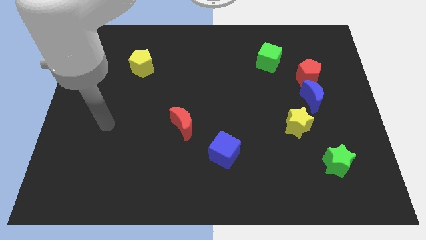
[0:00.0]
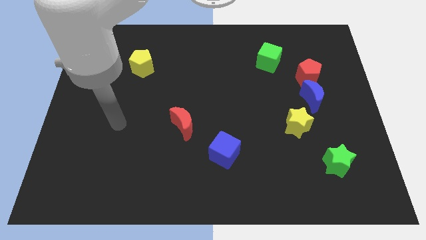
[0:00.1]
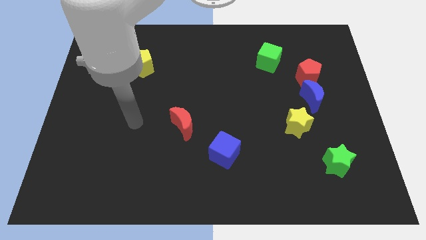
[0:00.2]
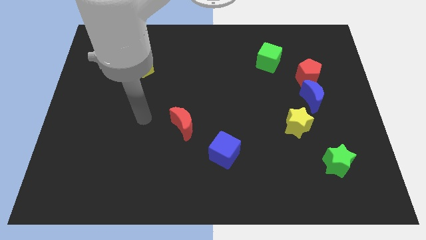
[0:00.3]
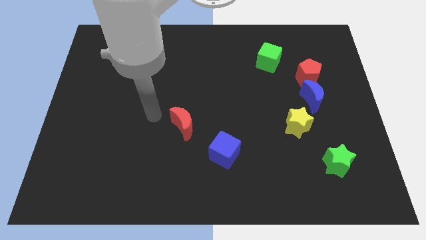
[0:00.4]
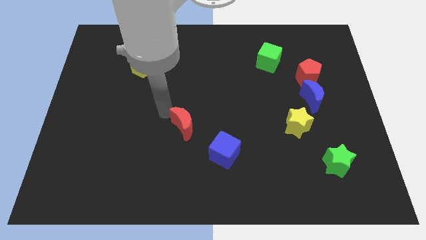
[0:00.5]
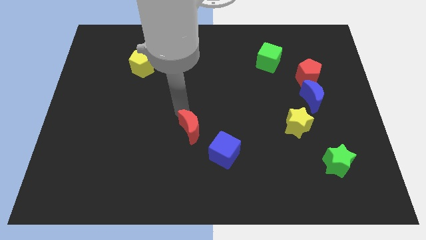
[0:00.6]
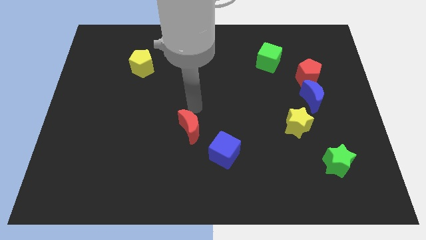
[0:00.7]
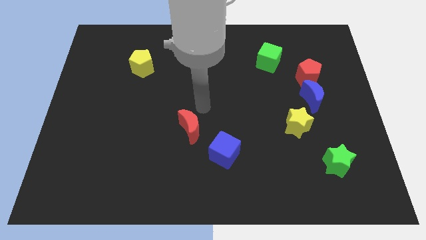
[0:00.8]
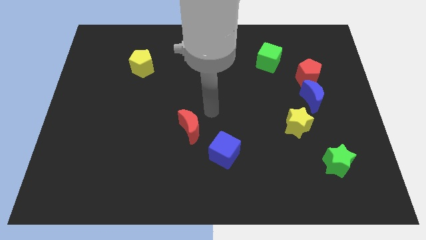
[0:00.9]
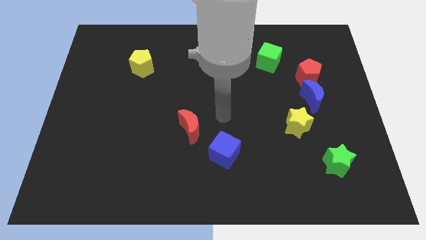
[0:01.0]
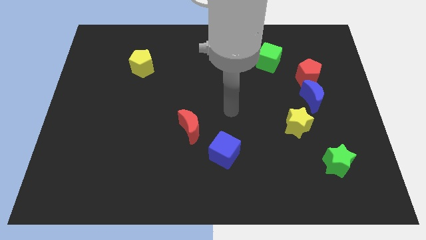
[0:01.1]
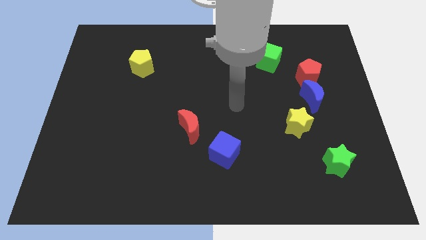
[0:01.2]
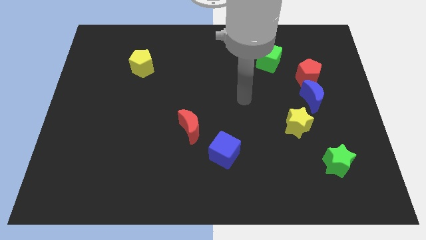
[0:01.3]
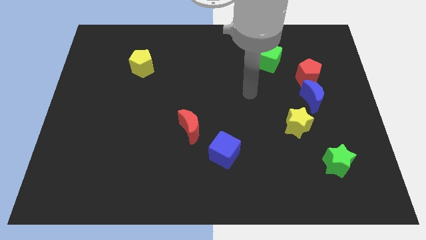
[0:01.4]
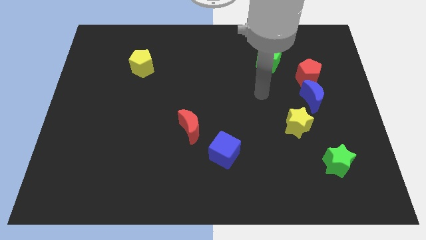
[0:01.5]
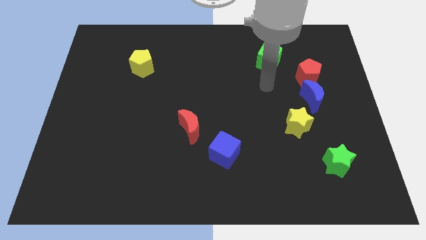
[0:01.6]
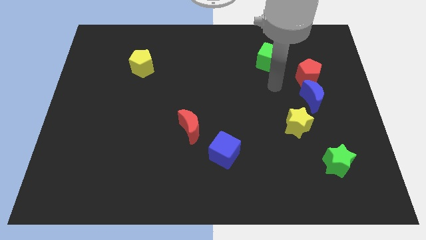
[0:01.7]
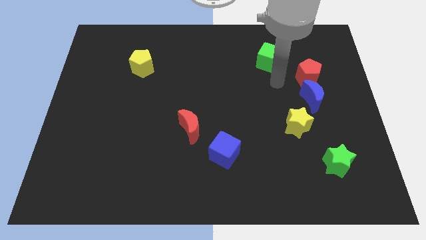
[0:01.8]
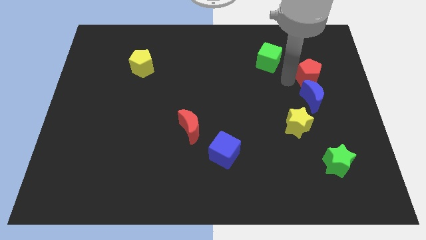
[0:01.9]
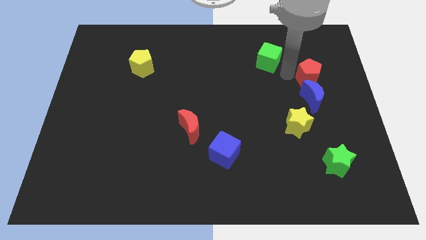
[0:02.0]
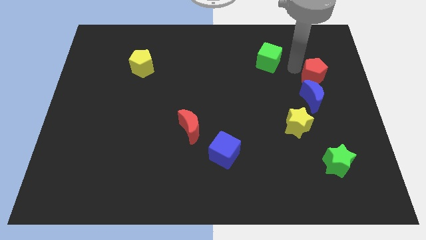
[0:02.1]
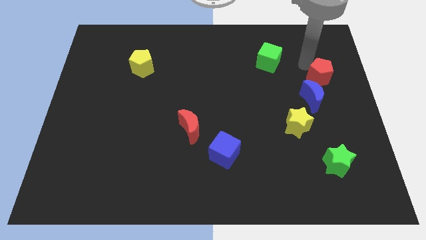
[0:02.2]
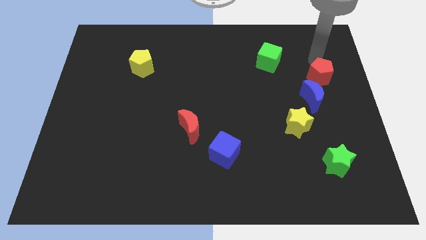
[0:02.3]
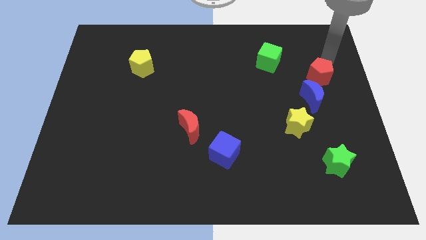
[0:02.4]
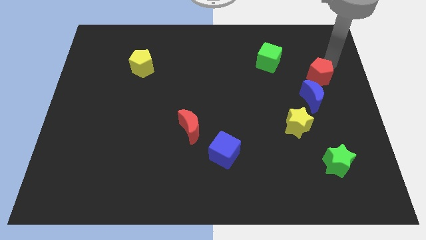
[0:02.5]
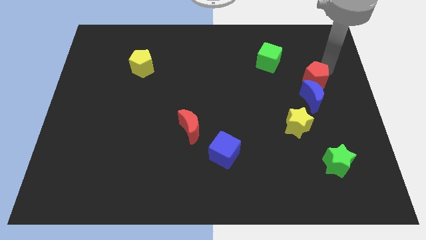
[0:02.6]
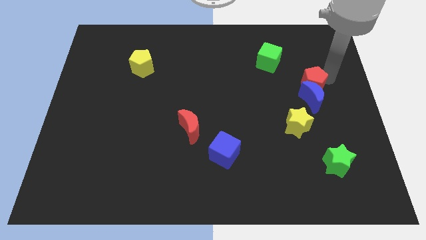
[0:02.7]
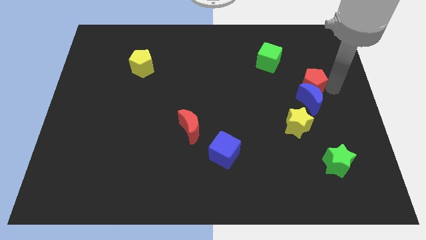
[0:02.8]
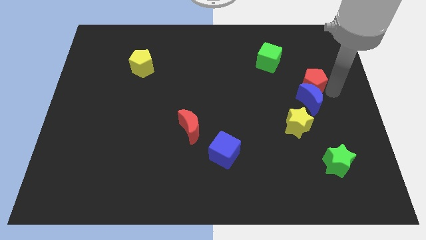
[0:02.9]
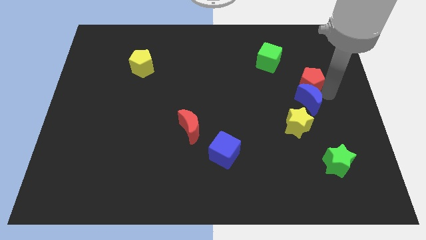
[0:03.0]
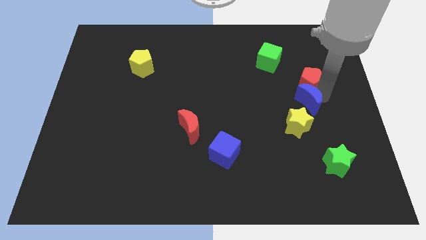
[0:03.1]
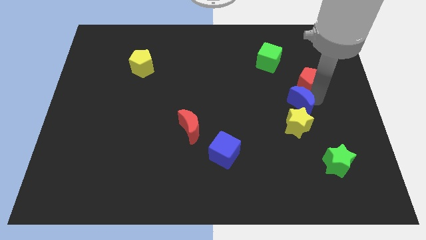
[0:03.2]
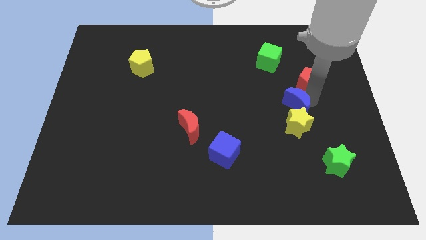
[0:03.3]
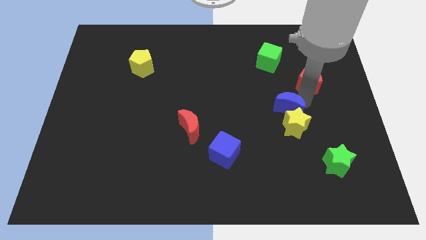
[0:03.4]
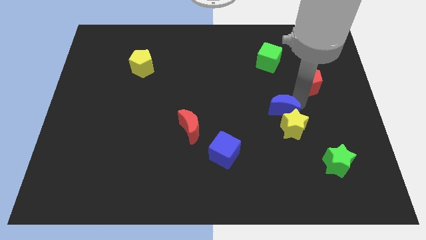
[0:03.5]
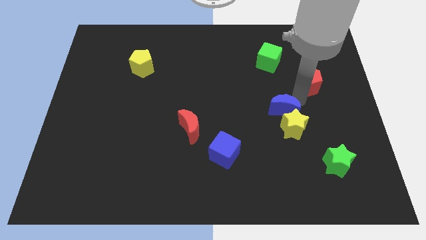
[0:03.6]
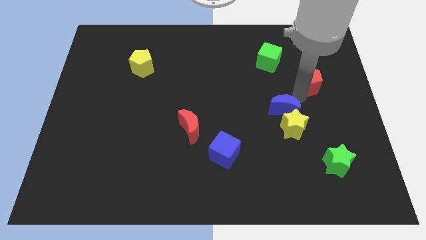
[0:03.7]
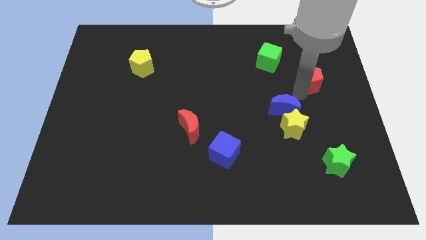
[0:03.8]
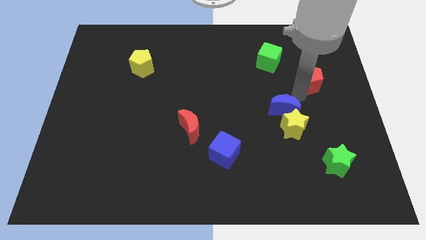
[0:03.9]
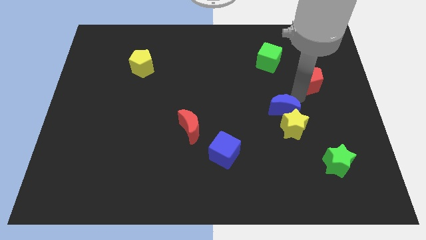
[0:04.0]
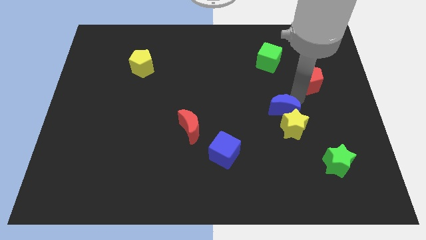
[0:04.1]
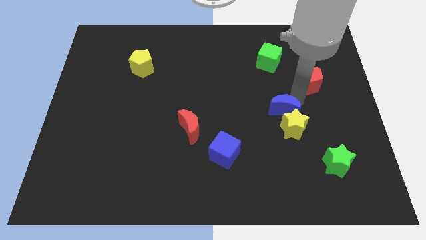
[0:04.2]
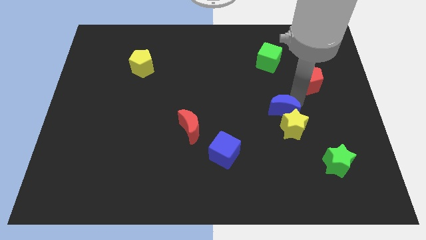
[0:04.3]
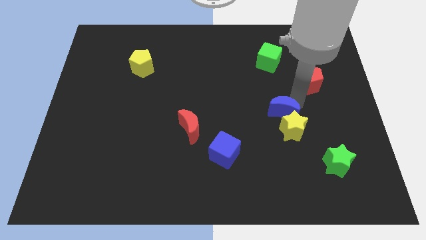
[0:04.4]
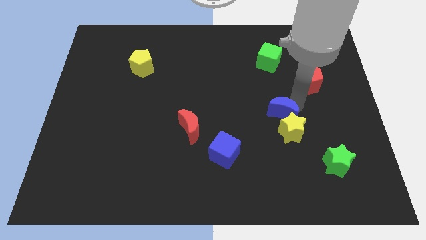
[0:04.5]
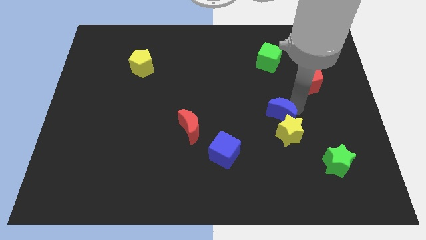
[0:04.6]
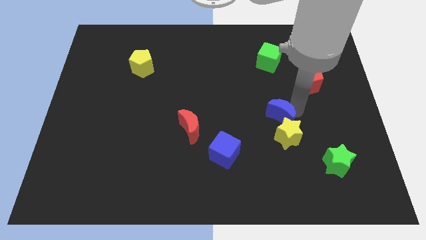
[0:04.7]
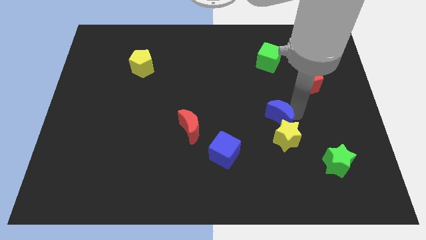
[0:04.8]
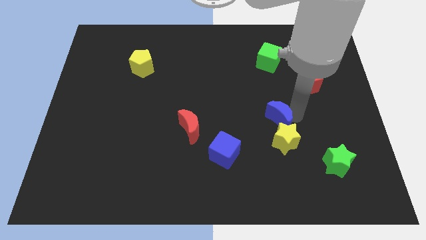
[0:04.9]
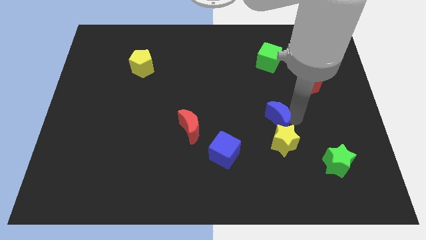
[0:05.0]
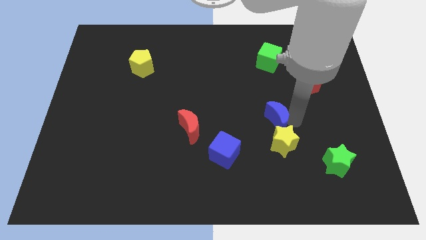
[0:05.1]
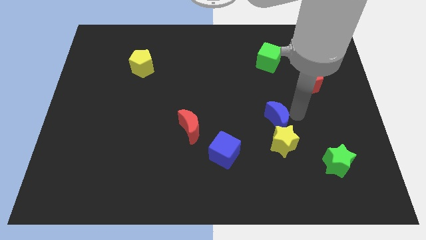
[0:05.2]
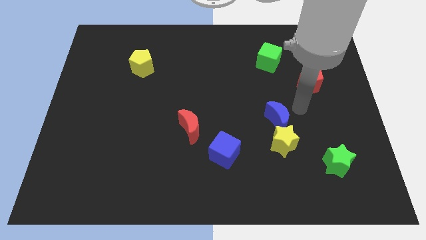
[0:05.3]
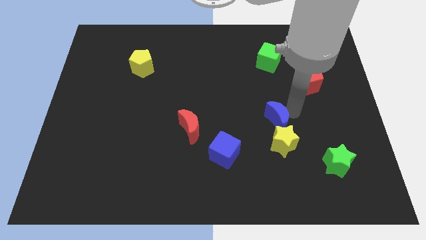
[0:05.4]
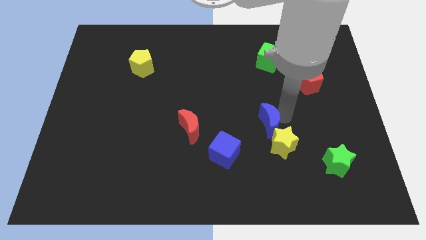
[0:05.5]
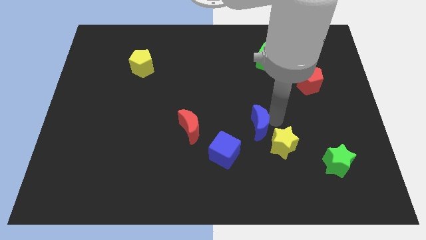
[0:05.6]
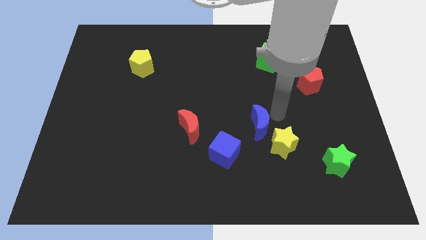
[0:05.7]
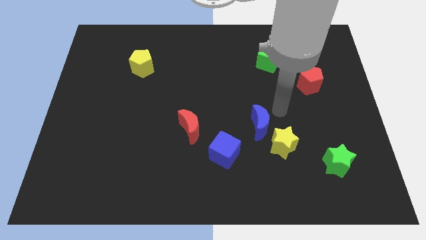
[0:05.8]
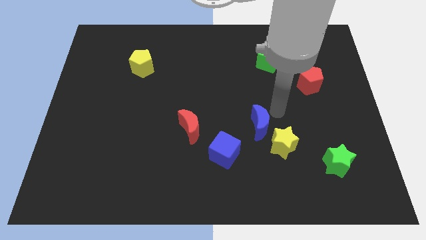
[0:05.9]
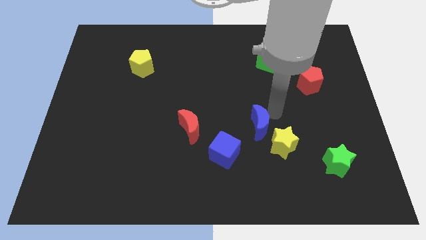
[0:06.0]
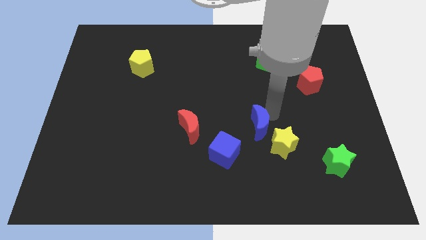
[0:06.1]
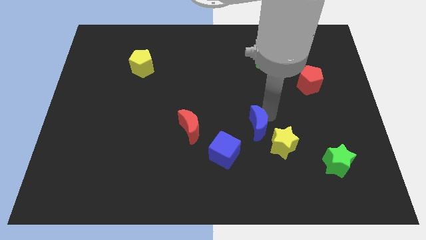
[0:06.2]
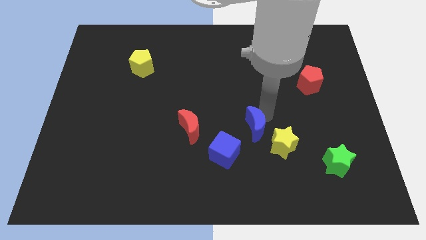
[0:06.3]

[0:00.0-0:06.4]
move the blue moon to the left side of the yellow star
